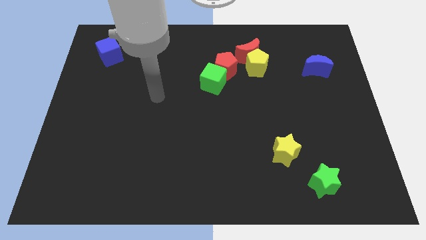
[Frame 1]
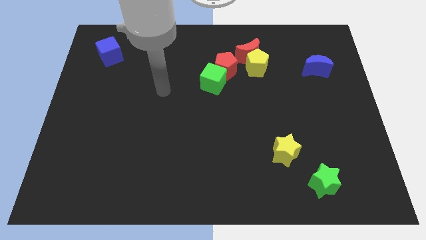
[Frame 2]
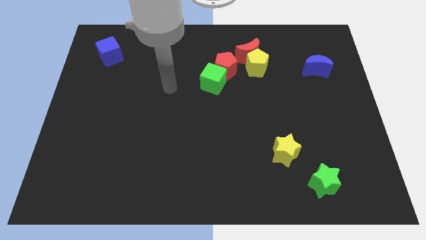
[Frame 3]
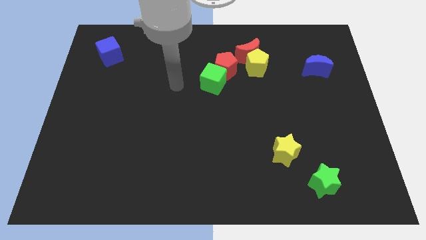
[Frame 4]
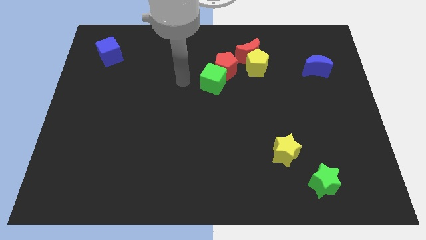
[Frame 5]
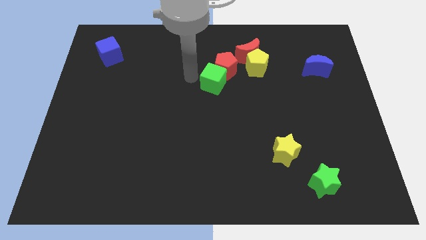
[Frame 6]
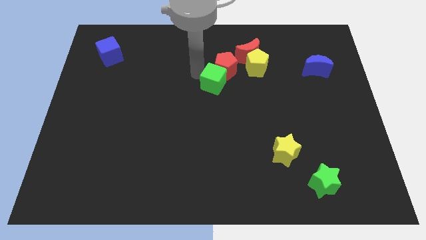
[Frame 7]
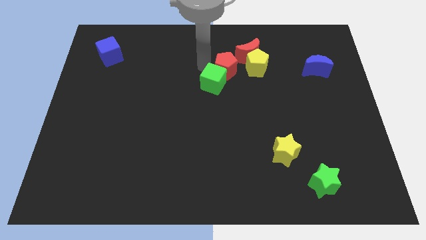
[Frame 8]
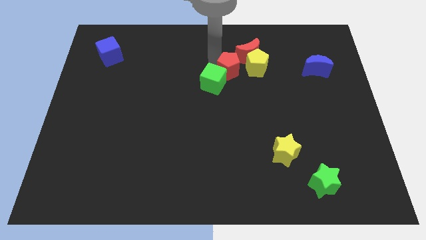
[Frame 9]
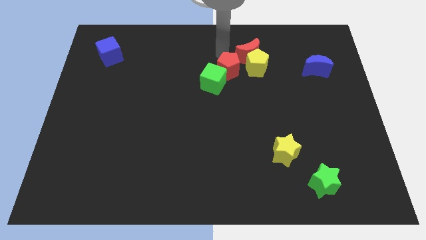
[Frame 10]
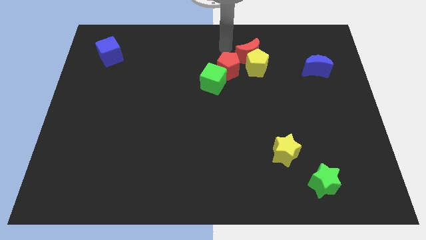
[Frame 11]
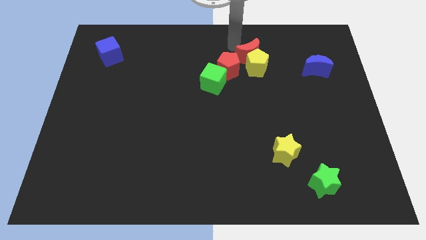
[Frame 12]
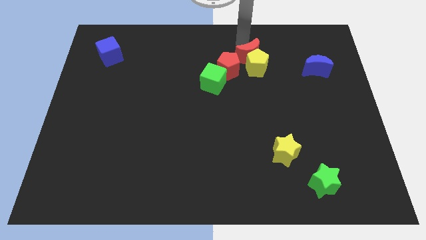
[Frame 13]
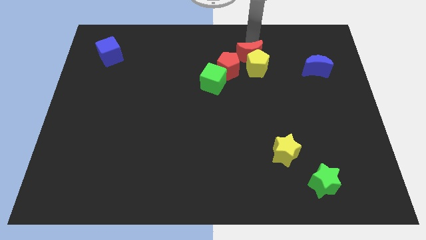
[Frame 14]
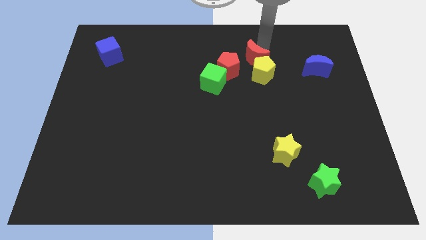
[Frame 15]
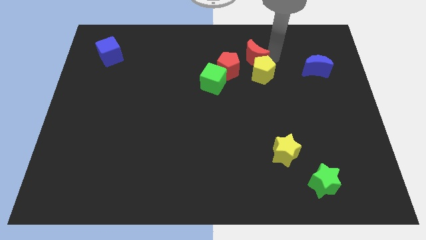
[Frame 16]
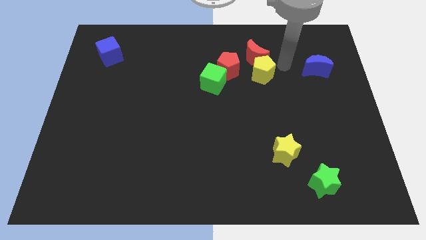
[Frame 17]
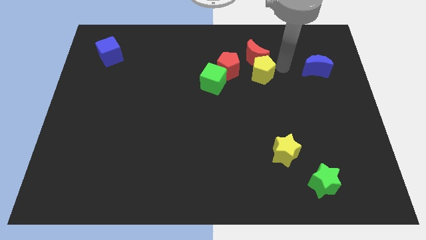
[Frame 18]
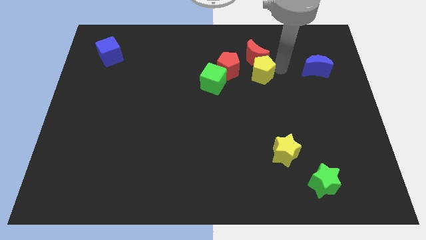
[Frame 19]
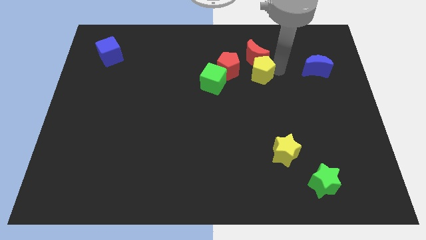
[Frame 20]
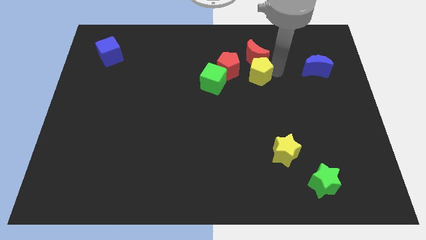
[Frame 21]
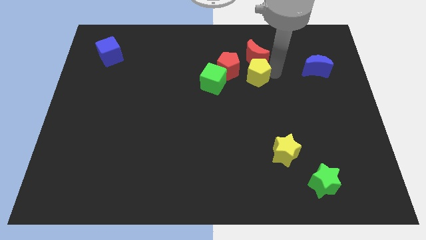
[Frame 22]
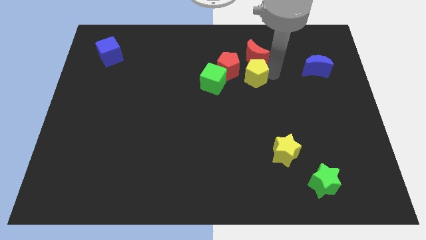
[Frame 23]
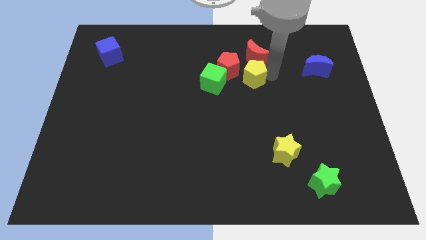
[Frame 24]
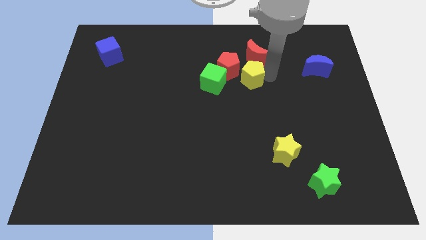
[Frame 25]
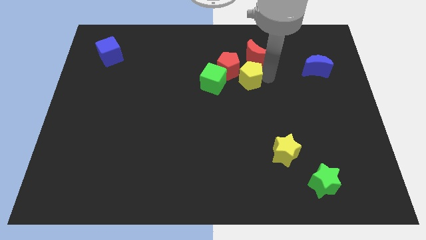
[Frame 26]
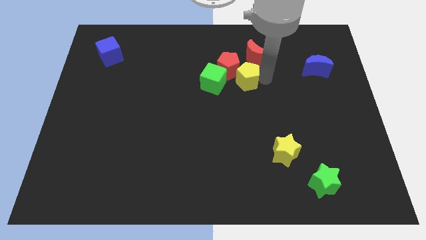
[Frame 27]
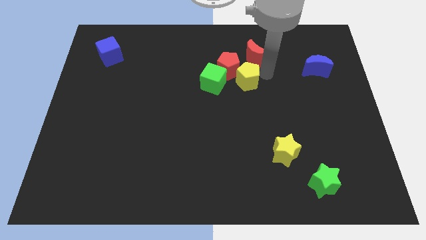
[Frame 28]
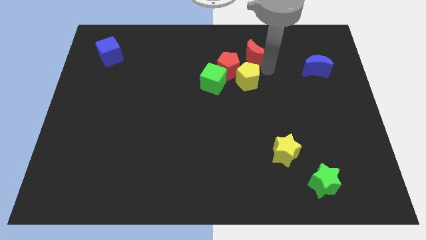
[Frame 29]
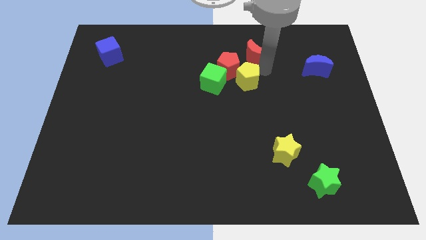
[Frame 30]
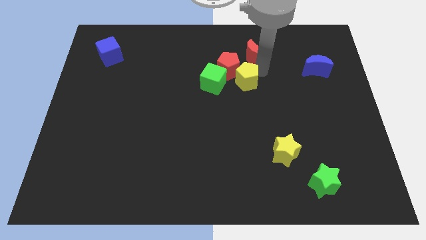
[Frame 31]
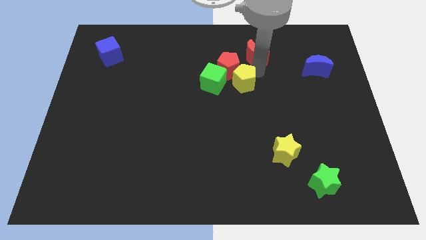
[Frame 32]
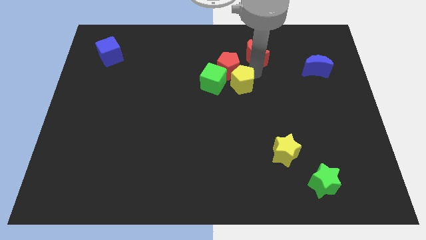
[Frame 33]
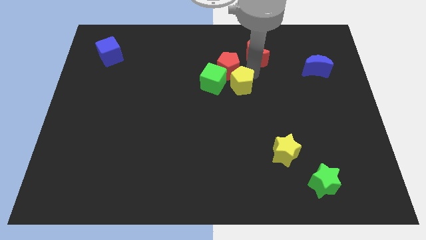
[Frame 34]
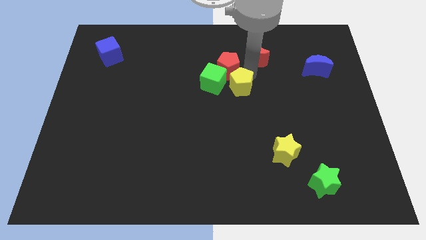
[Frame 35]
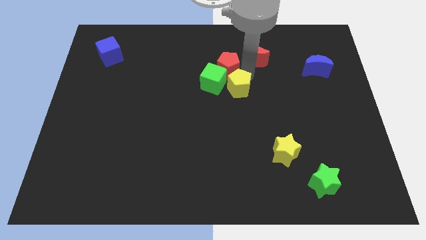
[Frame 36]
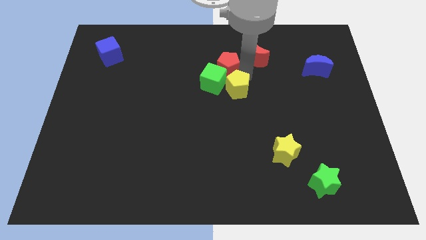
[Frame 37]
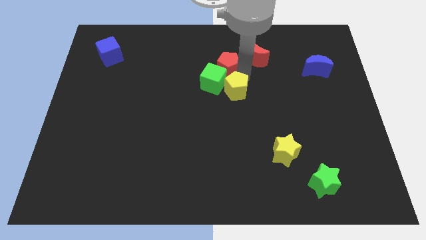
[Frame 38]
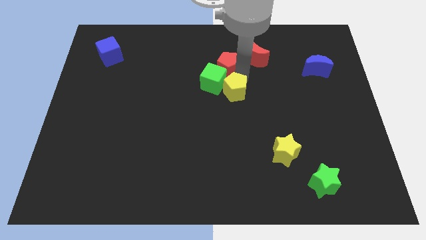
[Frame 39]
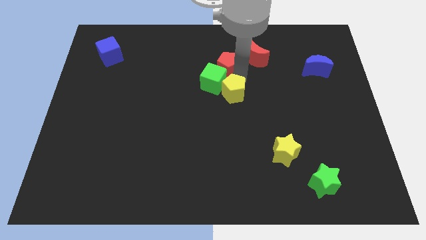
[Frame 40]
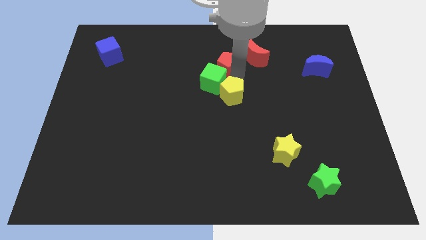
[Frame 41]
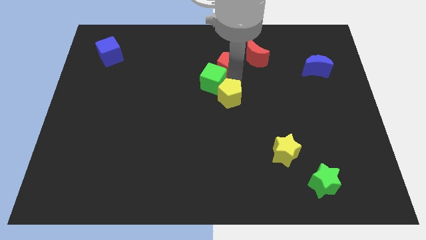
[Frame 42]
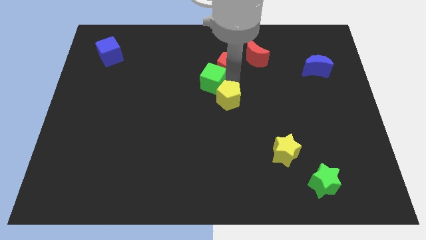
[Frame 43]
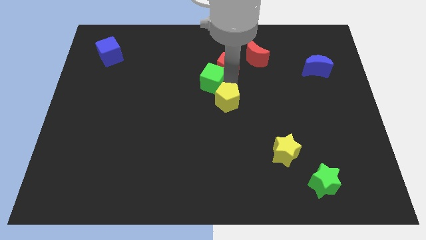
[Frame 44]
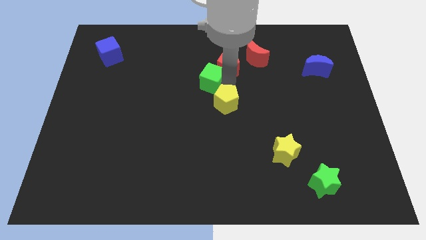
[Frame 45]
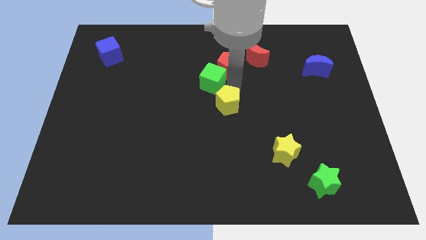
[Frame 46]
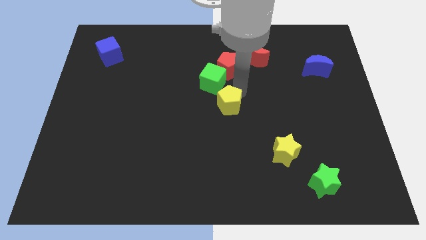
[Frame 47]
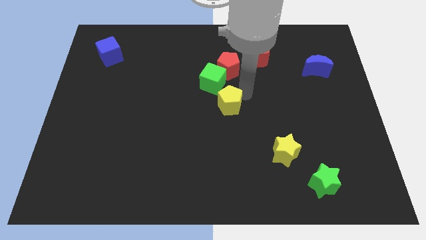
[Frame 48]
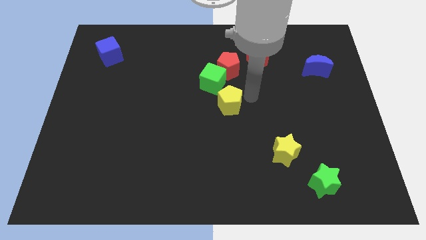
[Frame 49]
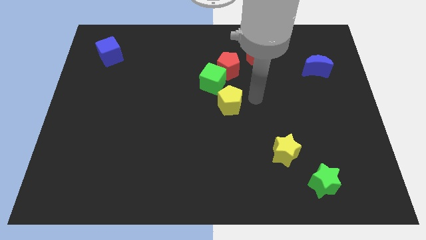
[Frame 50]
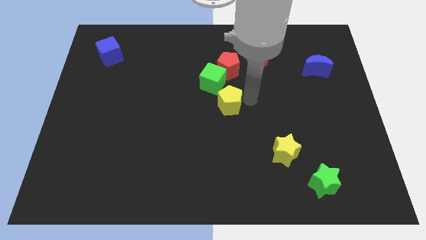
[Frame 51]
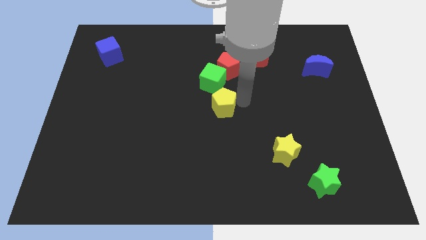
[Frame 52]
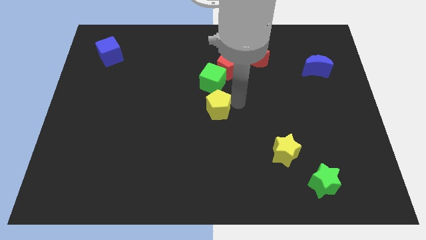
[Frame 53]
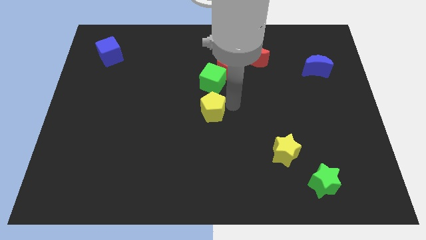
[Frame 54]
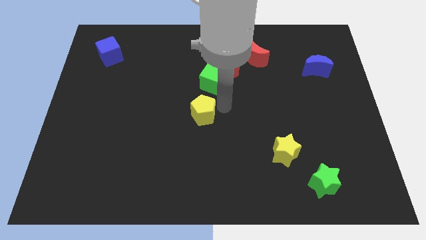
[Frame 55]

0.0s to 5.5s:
slide the yellow pentagon downwards and left

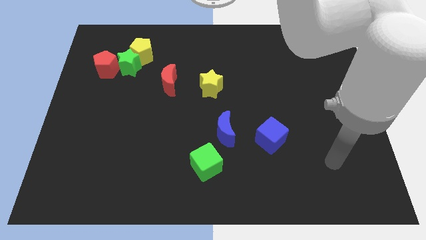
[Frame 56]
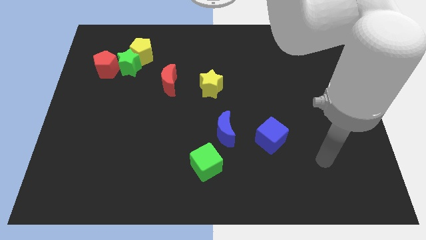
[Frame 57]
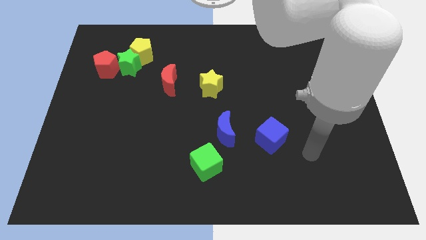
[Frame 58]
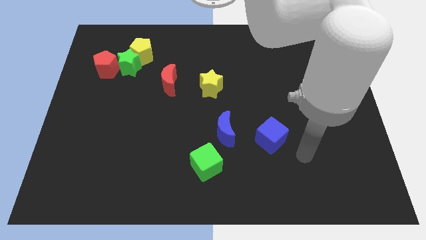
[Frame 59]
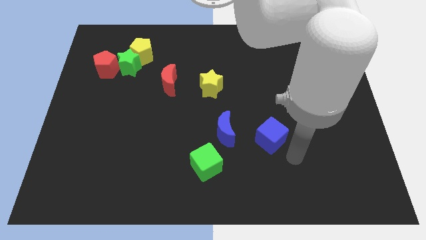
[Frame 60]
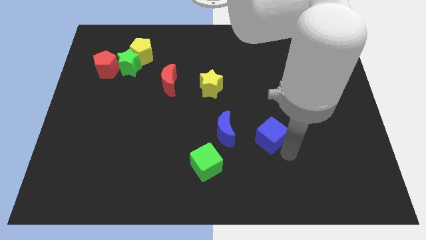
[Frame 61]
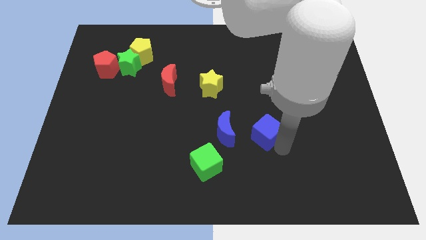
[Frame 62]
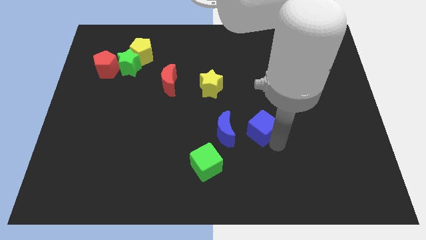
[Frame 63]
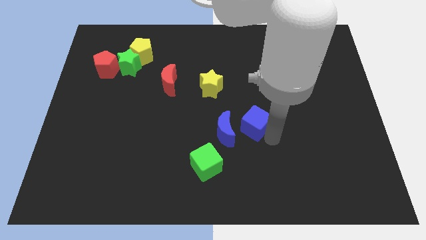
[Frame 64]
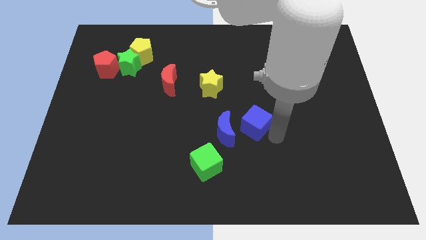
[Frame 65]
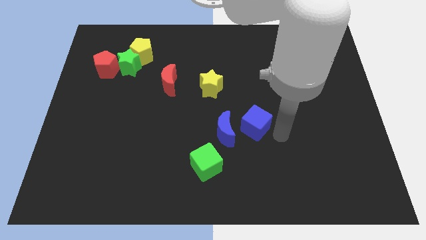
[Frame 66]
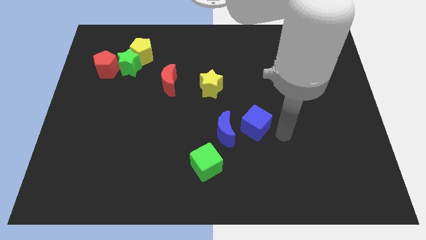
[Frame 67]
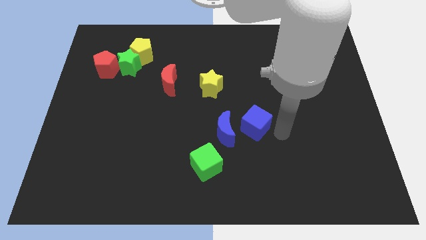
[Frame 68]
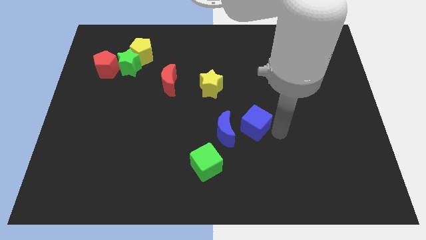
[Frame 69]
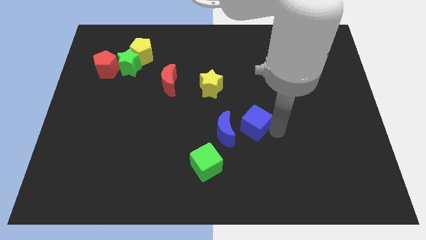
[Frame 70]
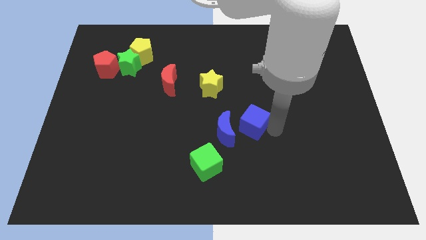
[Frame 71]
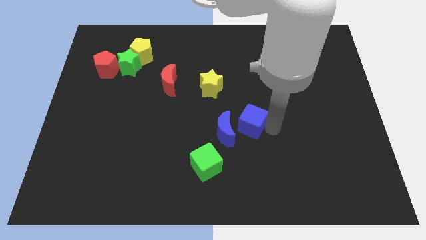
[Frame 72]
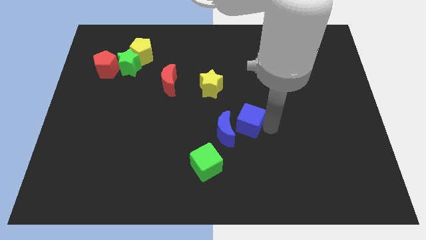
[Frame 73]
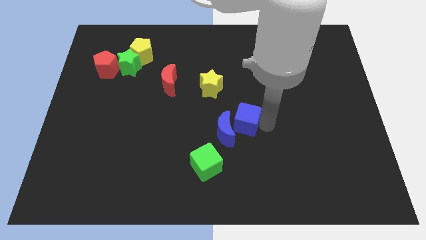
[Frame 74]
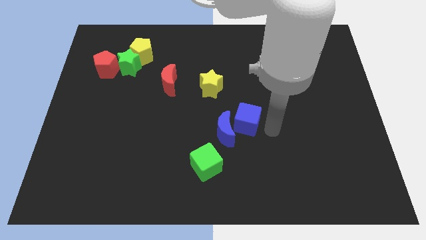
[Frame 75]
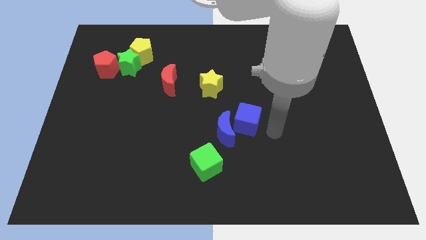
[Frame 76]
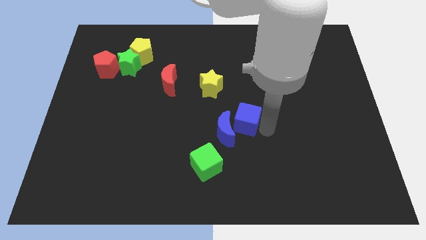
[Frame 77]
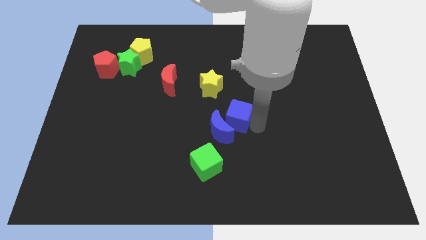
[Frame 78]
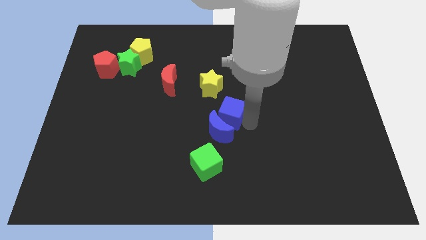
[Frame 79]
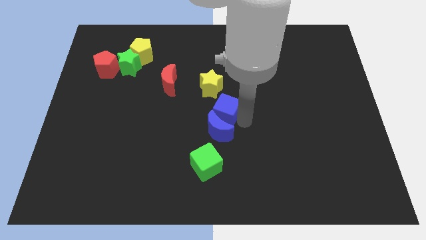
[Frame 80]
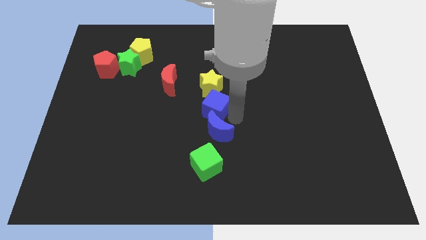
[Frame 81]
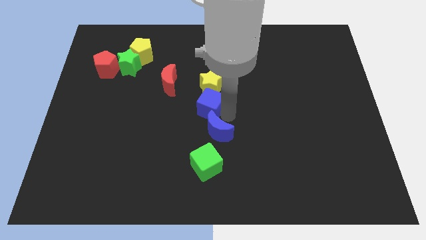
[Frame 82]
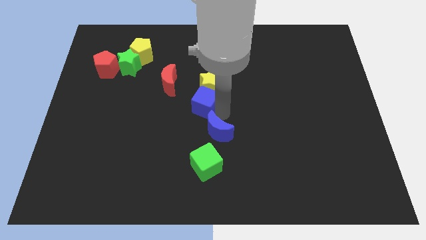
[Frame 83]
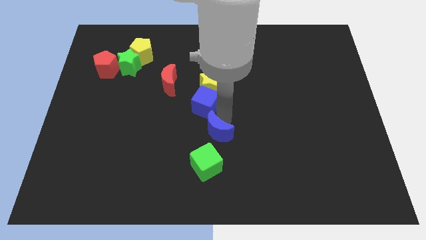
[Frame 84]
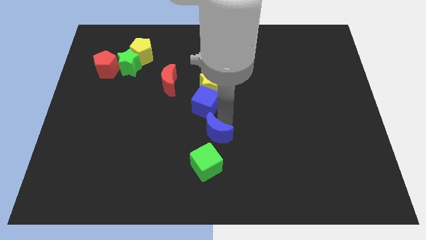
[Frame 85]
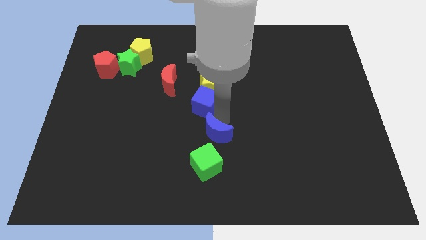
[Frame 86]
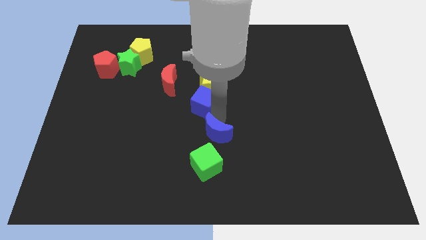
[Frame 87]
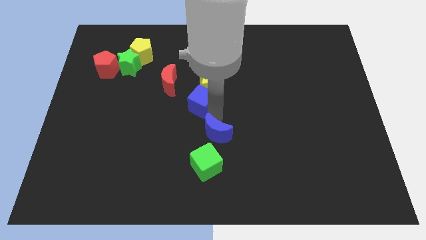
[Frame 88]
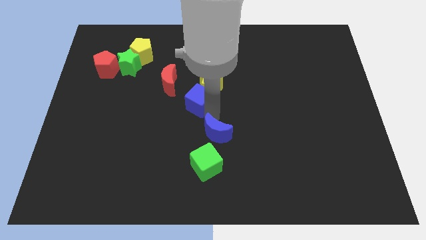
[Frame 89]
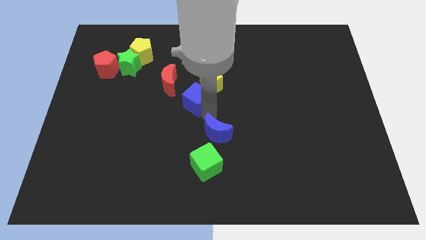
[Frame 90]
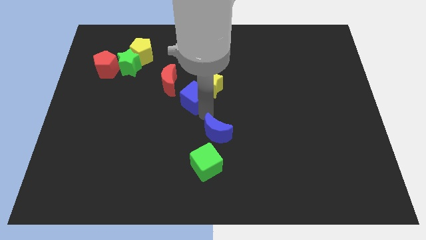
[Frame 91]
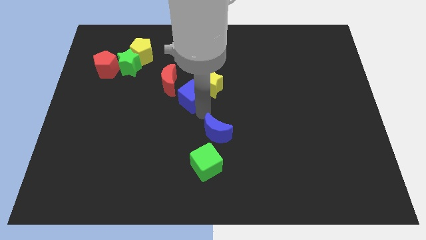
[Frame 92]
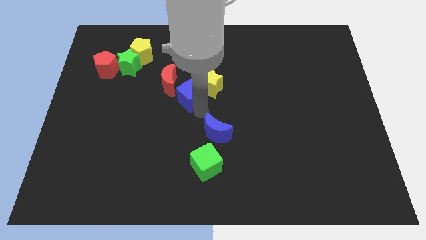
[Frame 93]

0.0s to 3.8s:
push the blue cube diagonally upwards and left
